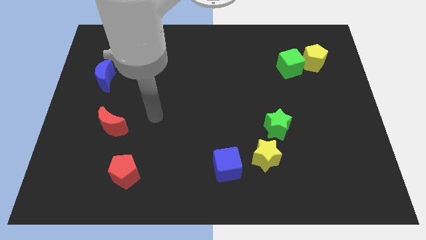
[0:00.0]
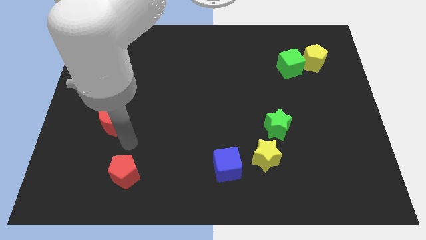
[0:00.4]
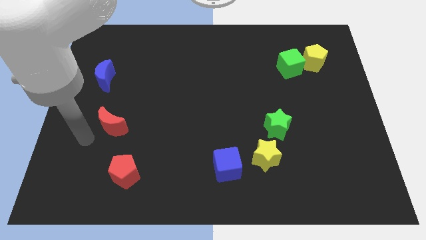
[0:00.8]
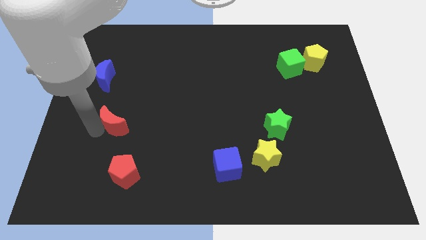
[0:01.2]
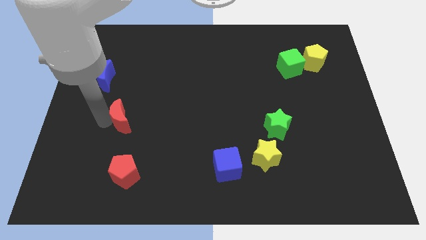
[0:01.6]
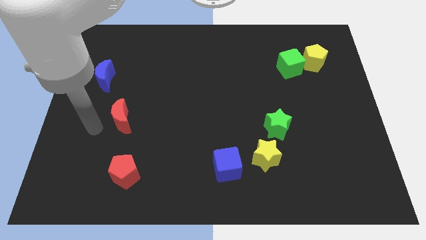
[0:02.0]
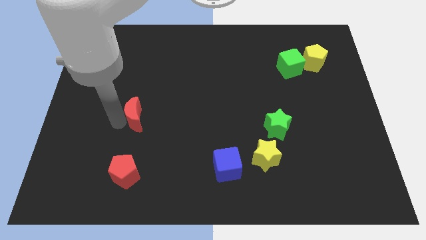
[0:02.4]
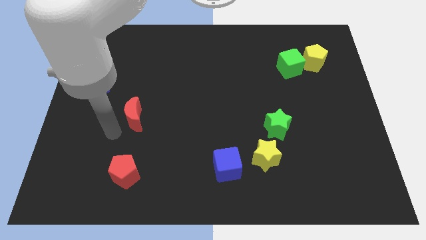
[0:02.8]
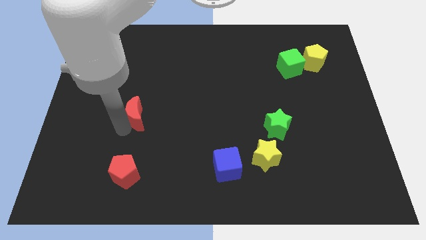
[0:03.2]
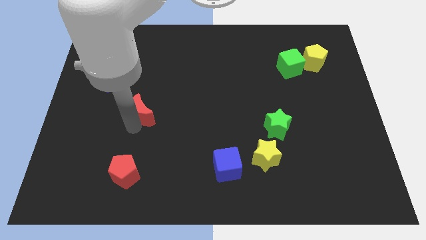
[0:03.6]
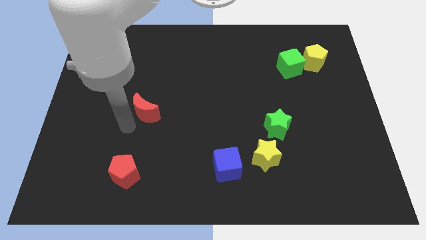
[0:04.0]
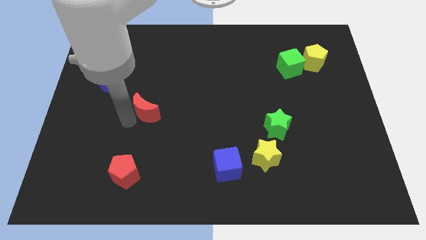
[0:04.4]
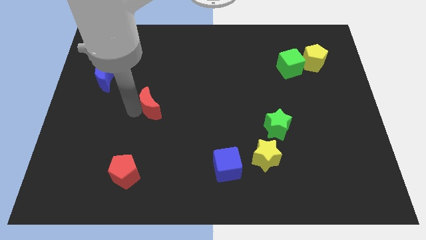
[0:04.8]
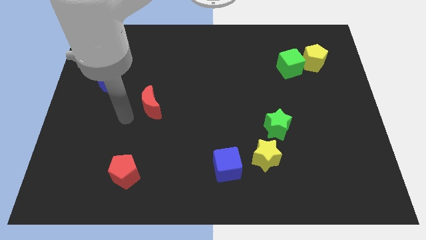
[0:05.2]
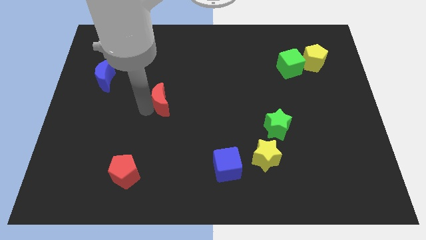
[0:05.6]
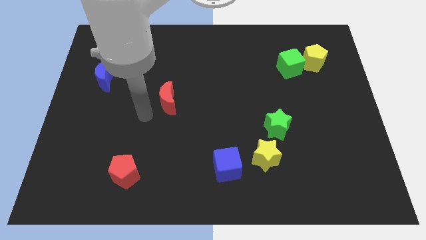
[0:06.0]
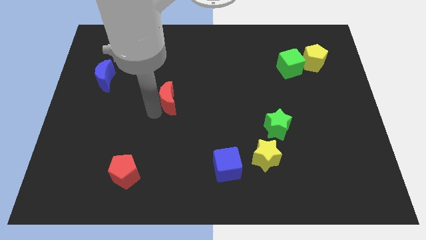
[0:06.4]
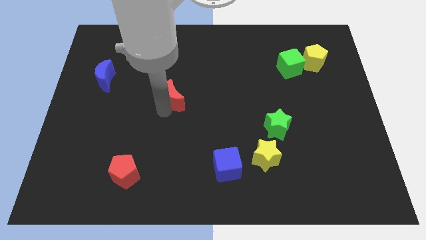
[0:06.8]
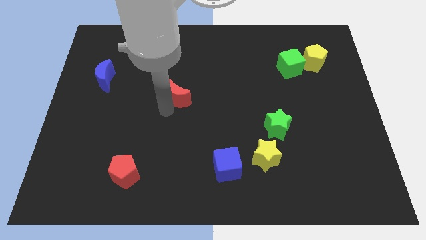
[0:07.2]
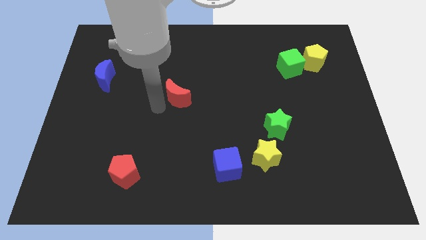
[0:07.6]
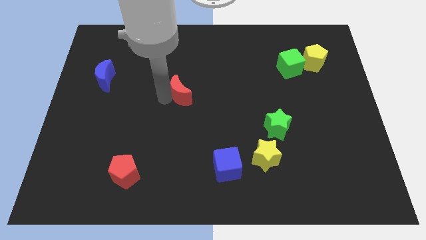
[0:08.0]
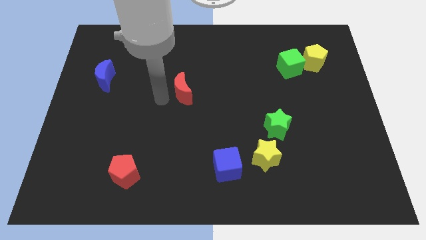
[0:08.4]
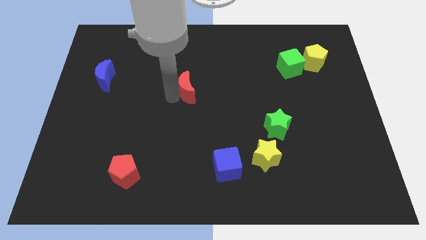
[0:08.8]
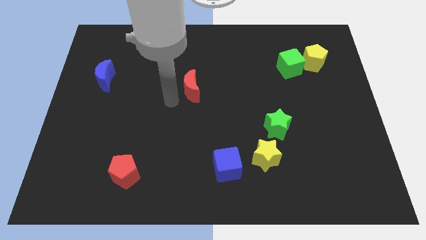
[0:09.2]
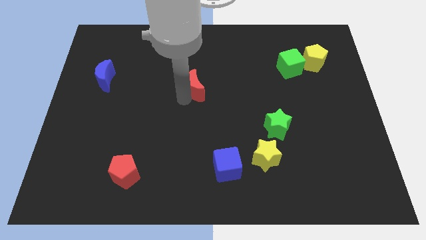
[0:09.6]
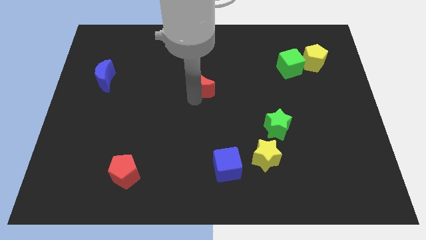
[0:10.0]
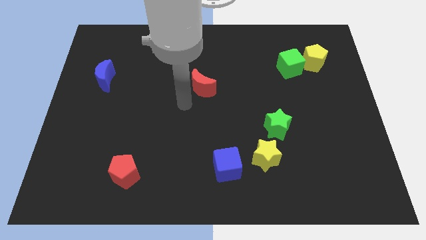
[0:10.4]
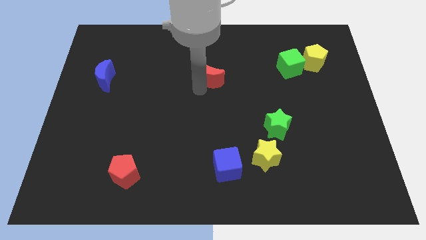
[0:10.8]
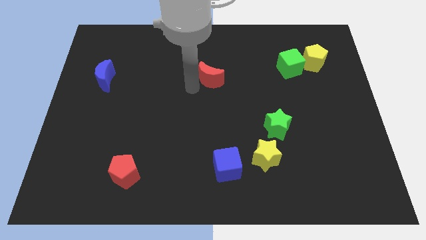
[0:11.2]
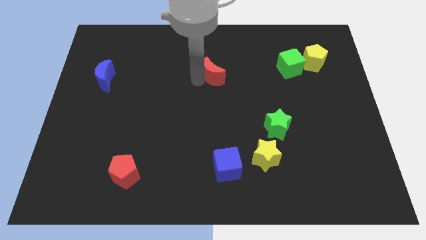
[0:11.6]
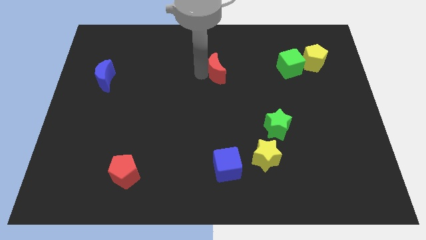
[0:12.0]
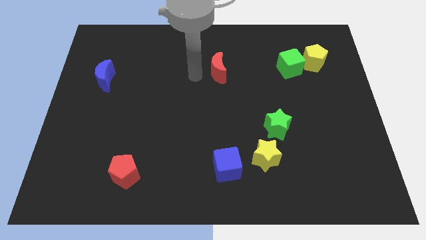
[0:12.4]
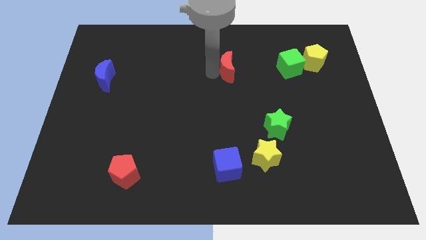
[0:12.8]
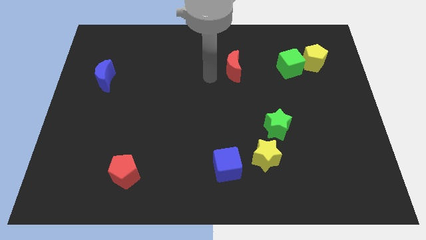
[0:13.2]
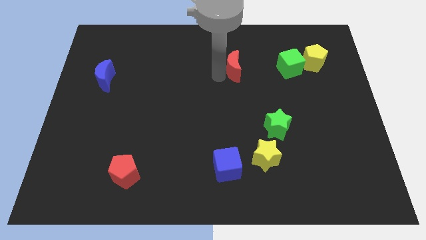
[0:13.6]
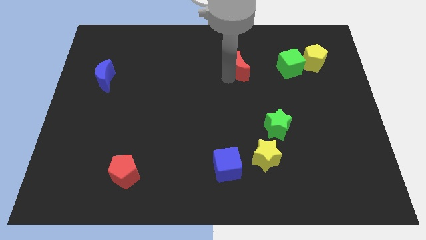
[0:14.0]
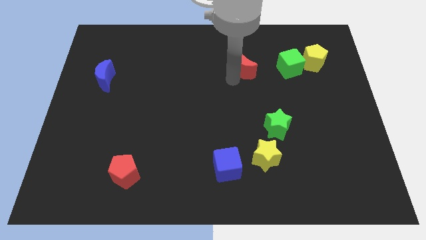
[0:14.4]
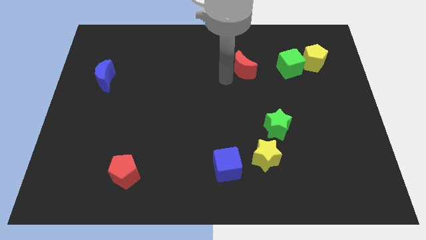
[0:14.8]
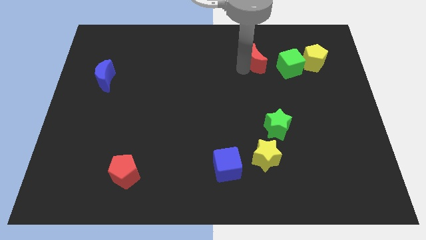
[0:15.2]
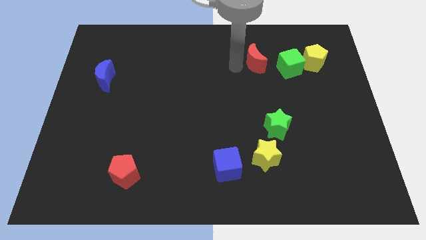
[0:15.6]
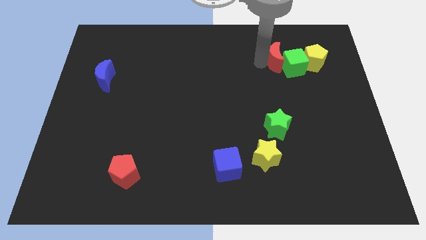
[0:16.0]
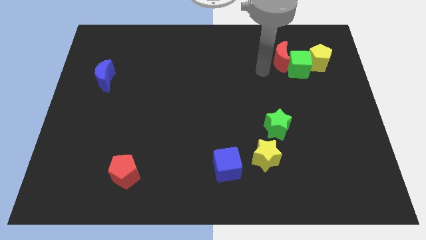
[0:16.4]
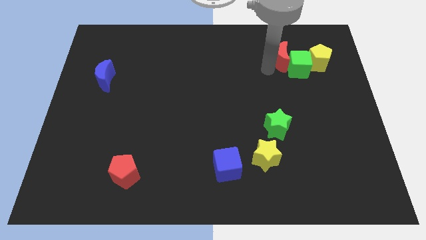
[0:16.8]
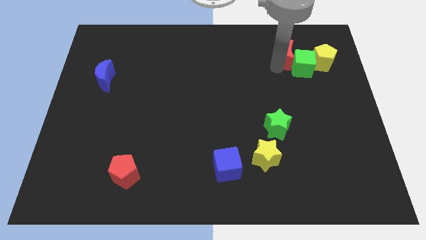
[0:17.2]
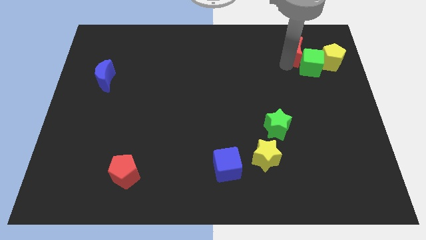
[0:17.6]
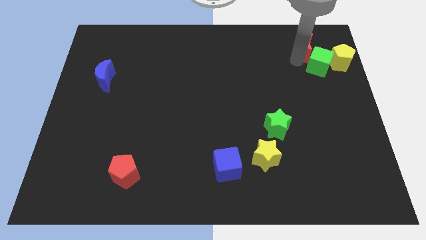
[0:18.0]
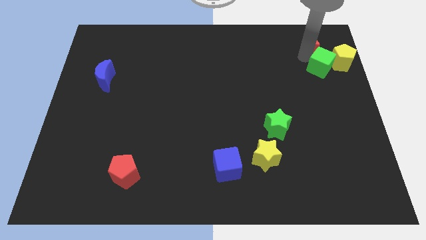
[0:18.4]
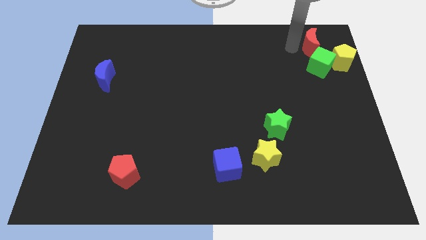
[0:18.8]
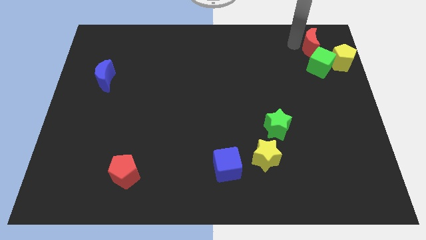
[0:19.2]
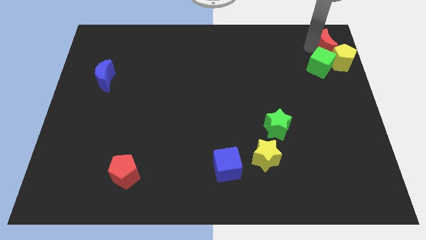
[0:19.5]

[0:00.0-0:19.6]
slide the red moon to the upper right corner

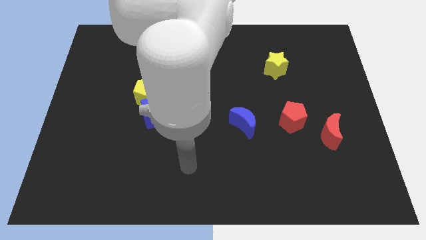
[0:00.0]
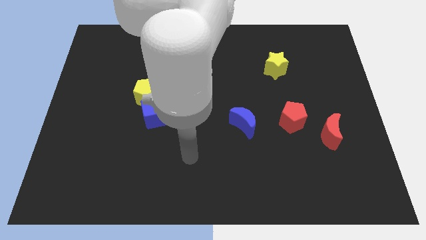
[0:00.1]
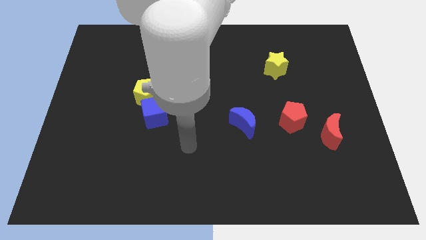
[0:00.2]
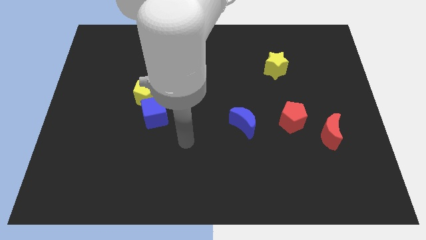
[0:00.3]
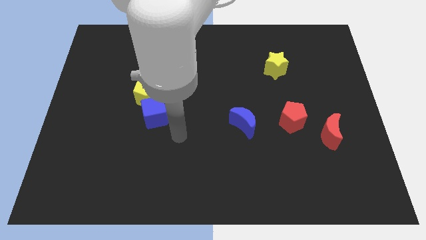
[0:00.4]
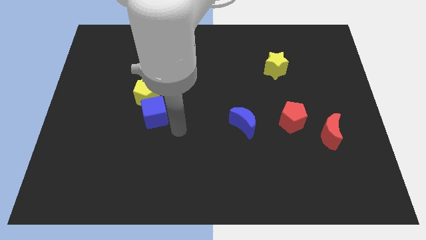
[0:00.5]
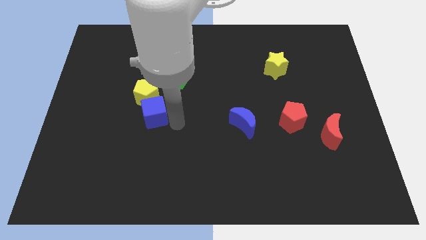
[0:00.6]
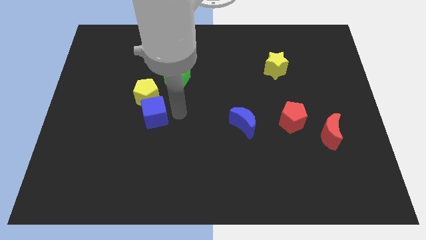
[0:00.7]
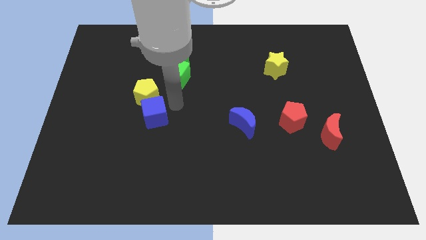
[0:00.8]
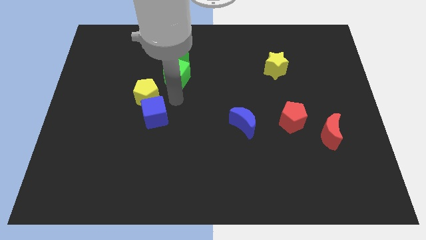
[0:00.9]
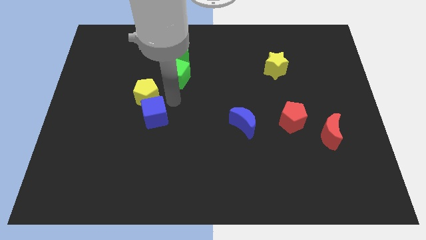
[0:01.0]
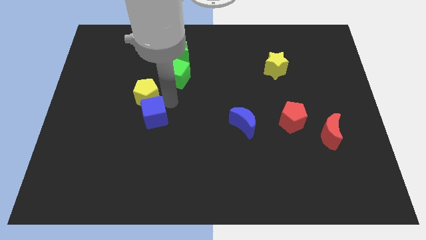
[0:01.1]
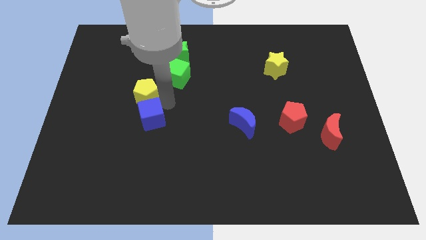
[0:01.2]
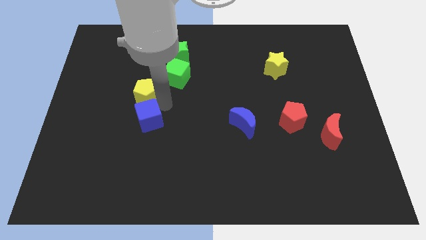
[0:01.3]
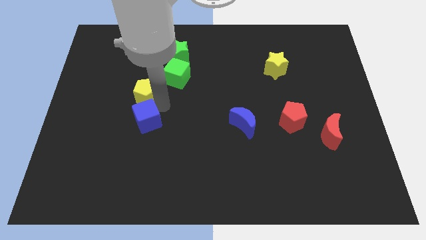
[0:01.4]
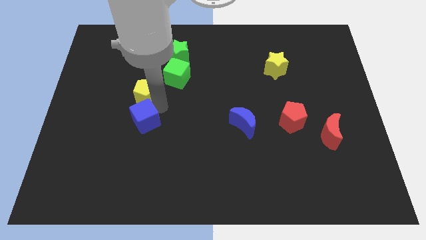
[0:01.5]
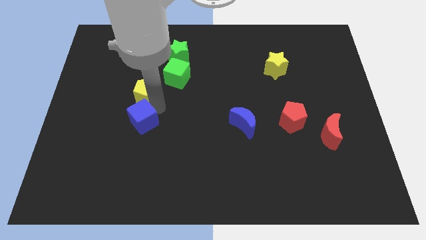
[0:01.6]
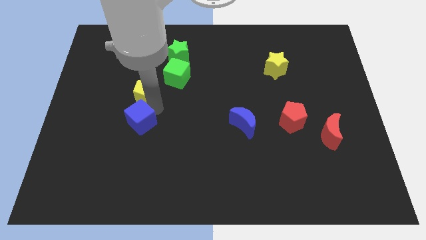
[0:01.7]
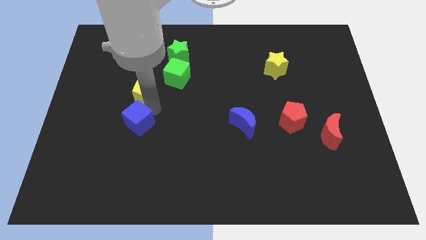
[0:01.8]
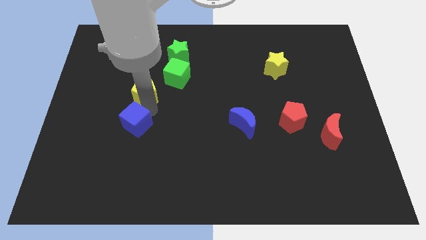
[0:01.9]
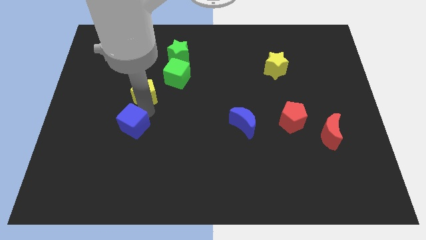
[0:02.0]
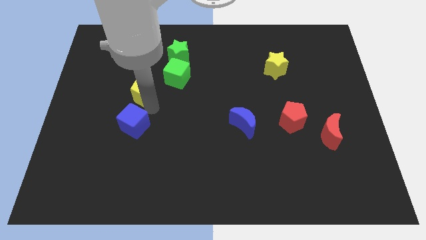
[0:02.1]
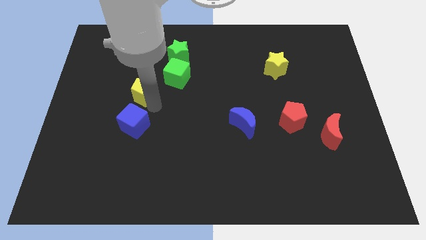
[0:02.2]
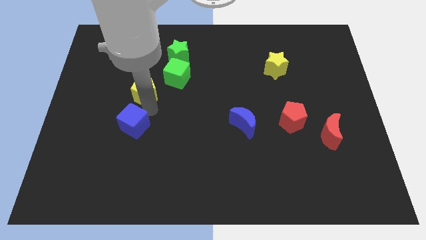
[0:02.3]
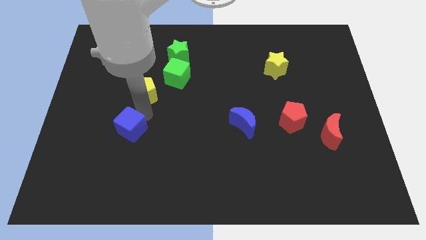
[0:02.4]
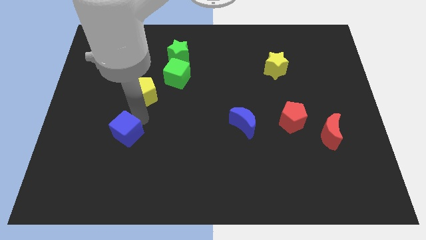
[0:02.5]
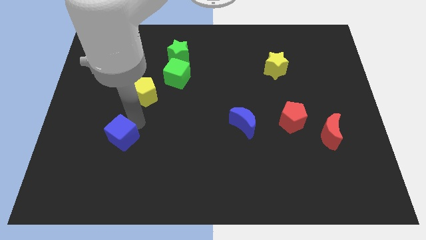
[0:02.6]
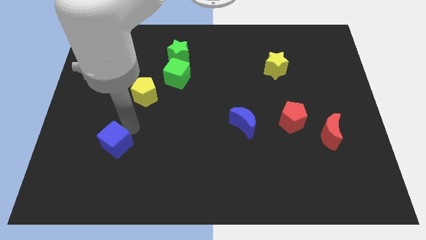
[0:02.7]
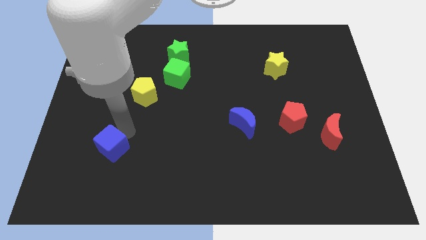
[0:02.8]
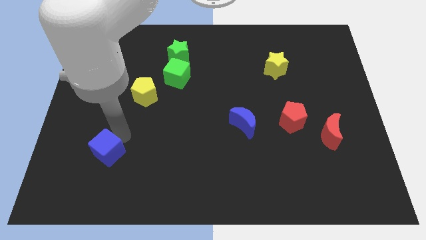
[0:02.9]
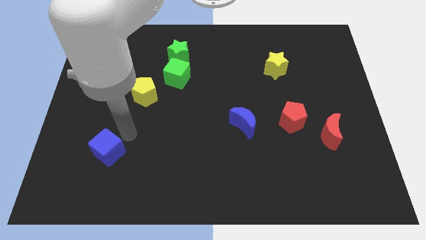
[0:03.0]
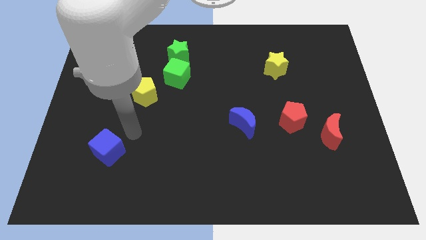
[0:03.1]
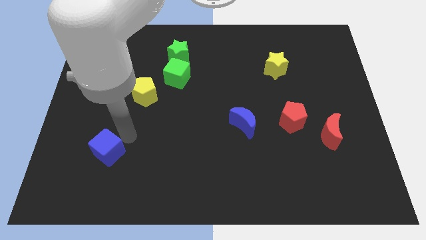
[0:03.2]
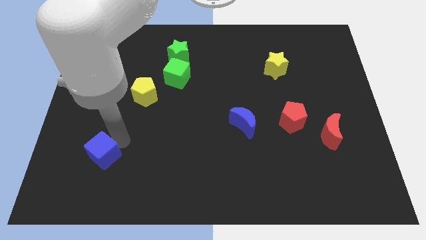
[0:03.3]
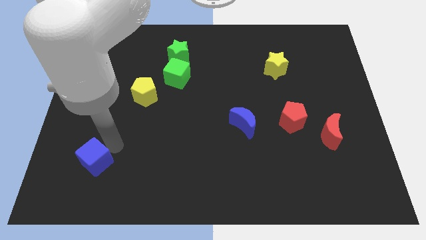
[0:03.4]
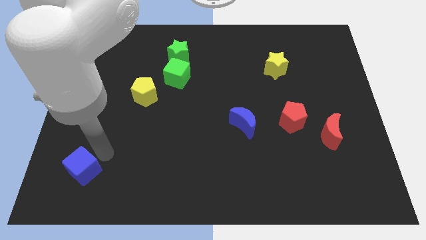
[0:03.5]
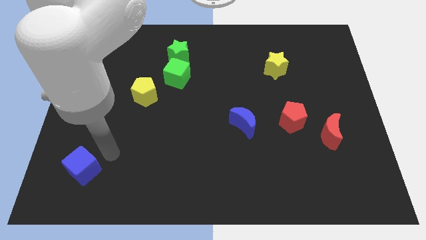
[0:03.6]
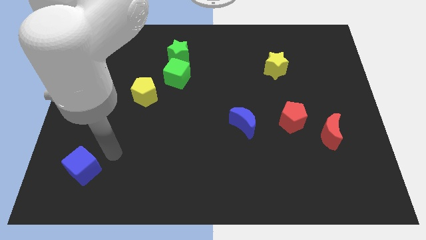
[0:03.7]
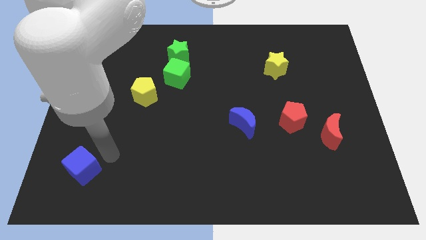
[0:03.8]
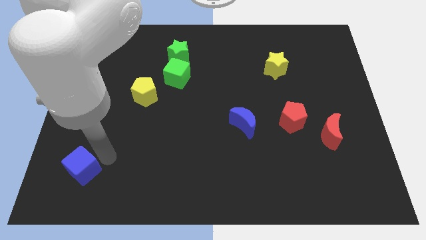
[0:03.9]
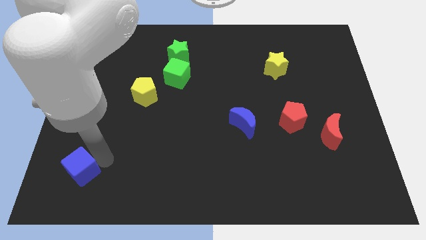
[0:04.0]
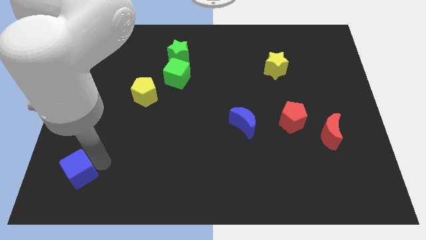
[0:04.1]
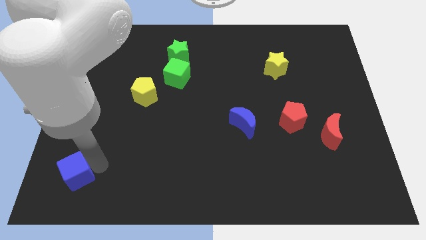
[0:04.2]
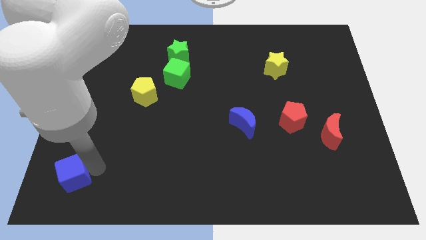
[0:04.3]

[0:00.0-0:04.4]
slide the blue cube to the bottom left corner
